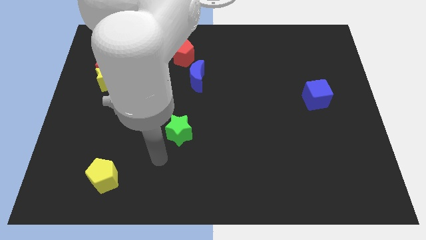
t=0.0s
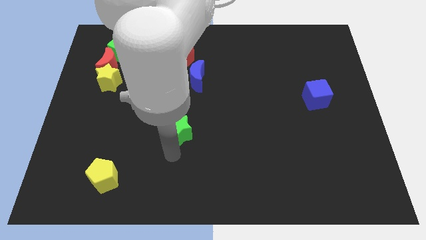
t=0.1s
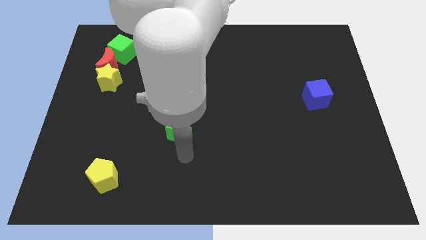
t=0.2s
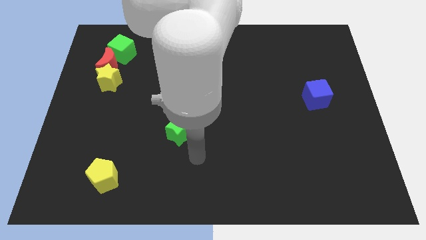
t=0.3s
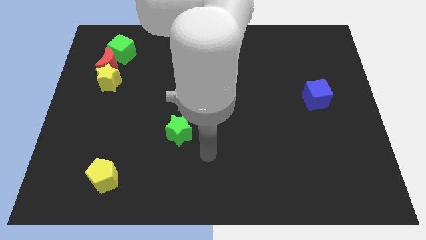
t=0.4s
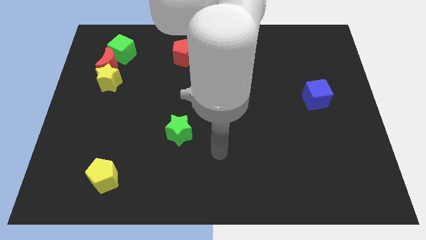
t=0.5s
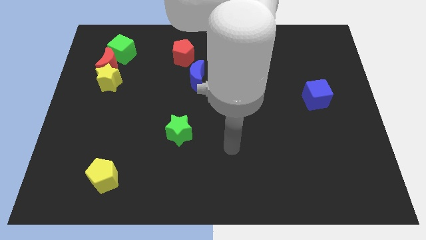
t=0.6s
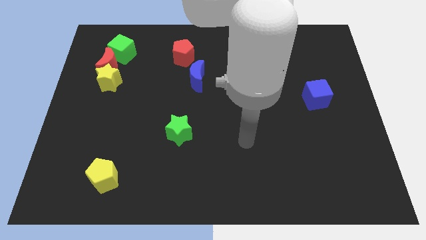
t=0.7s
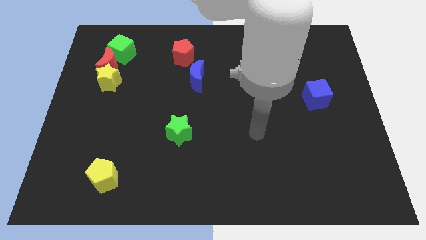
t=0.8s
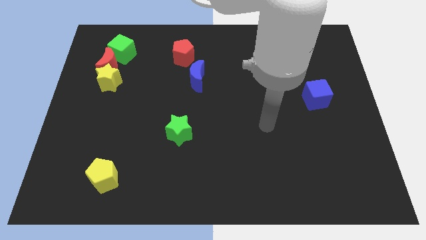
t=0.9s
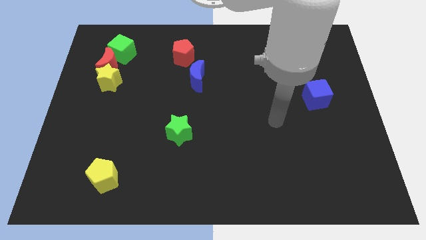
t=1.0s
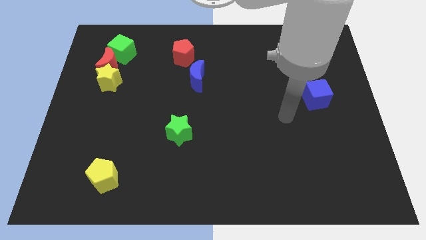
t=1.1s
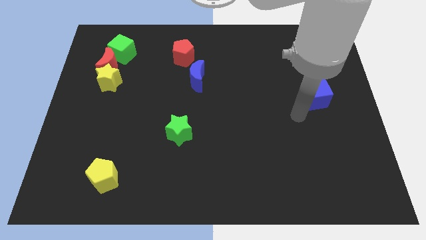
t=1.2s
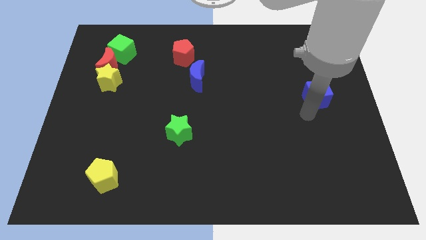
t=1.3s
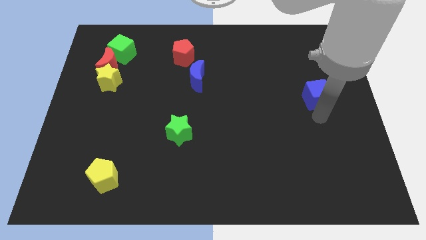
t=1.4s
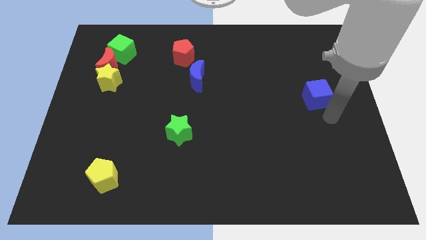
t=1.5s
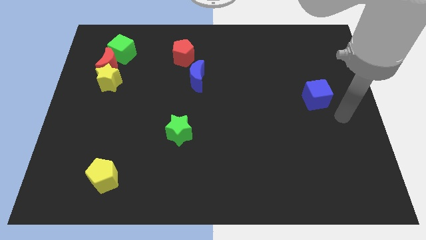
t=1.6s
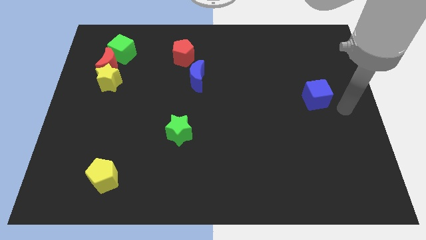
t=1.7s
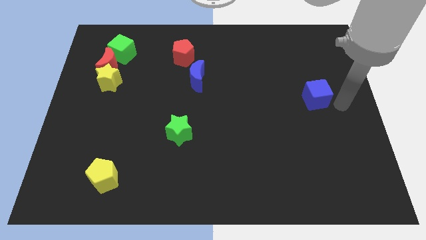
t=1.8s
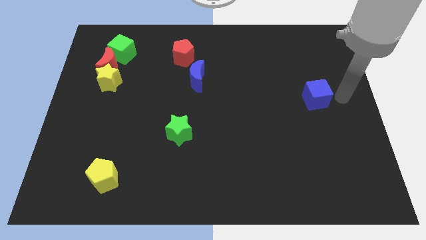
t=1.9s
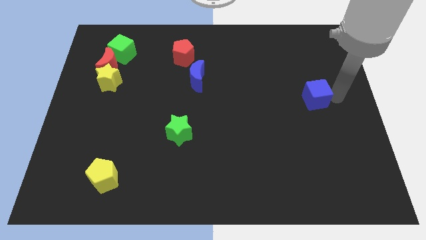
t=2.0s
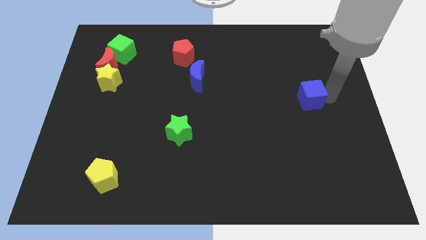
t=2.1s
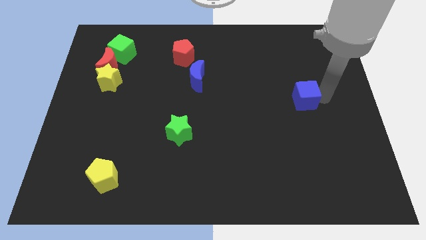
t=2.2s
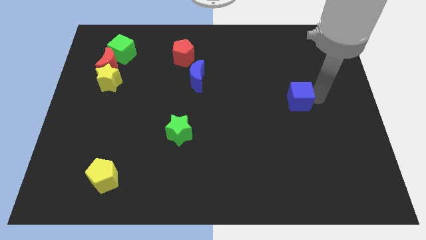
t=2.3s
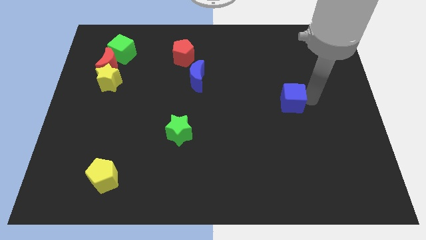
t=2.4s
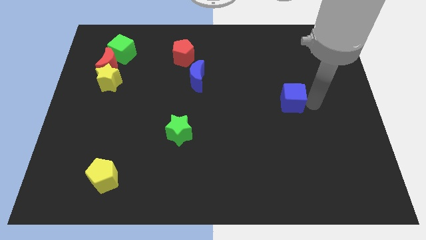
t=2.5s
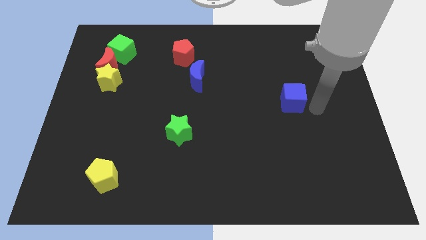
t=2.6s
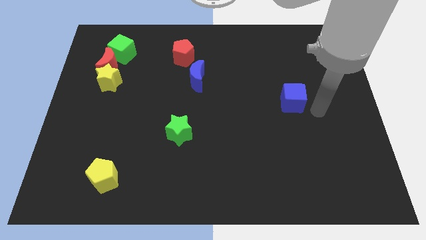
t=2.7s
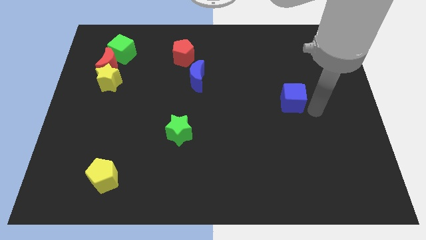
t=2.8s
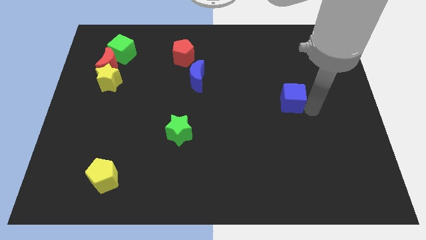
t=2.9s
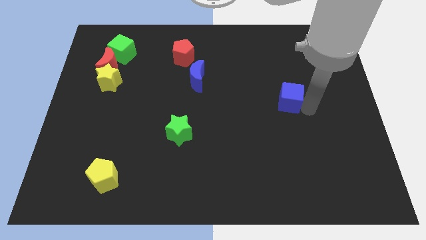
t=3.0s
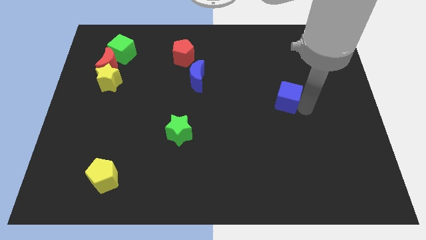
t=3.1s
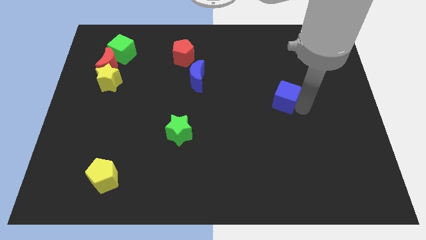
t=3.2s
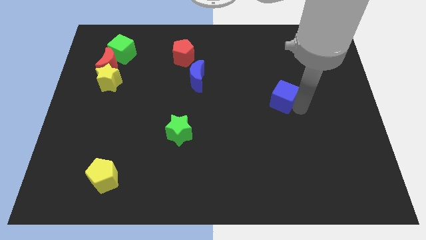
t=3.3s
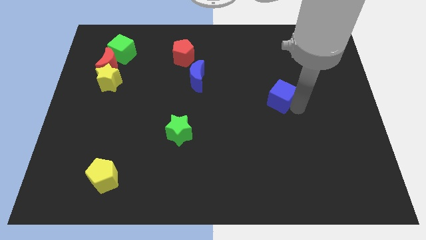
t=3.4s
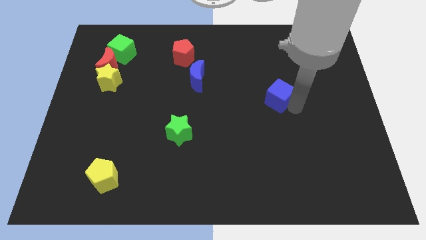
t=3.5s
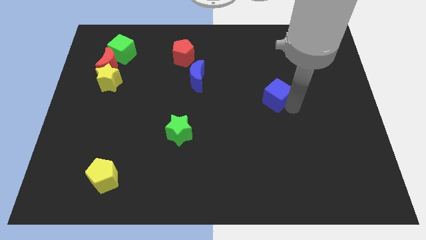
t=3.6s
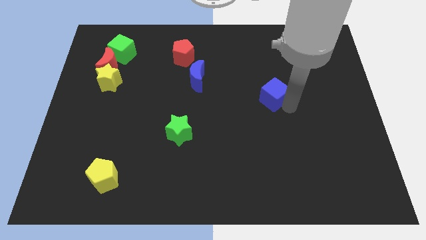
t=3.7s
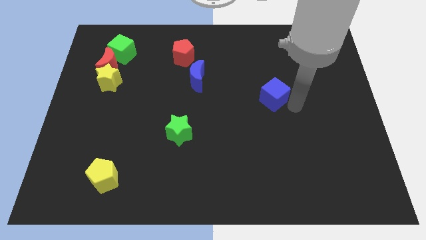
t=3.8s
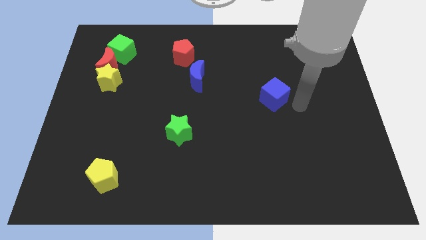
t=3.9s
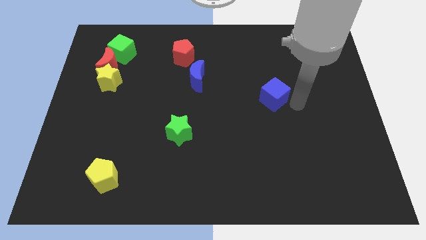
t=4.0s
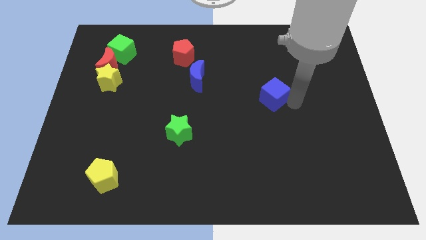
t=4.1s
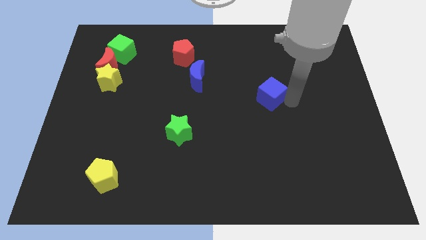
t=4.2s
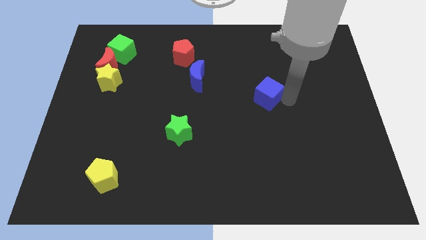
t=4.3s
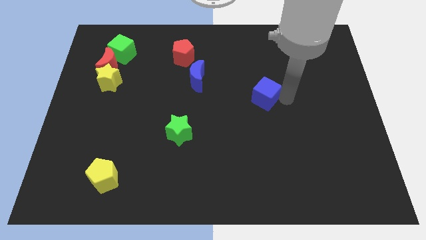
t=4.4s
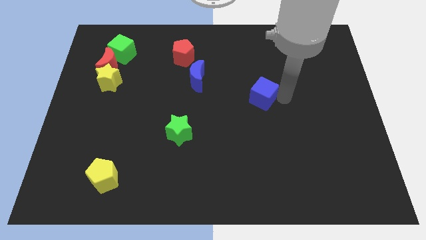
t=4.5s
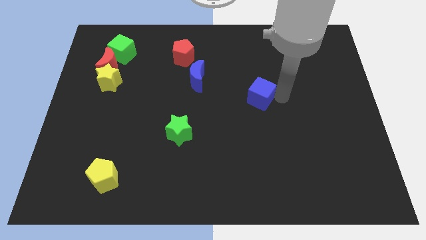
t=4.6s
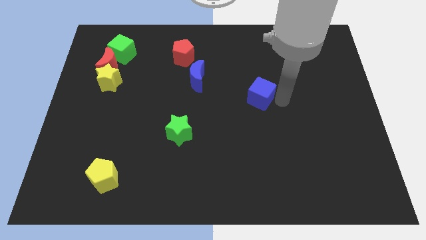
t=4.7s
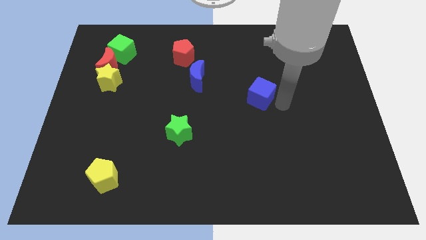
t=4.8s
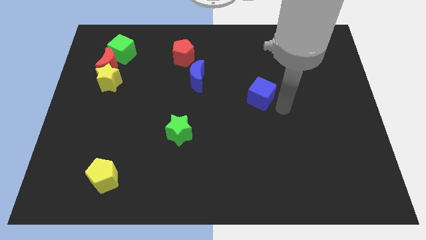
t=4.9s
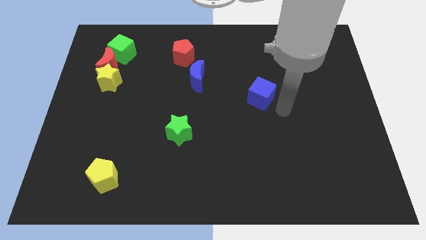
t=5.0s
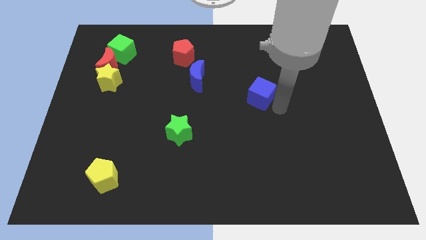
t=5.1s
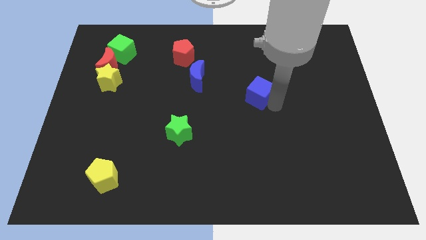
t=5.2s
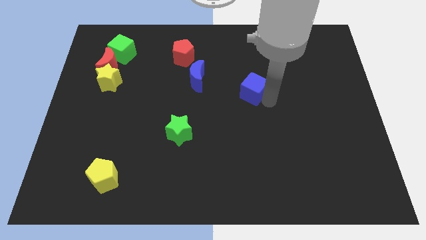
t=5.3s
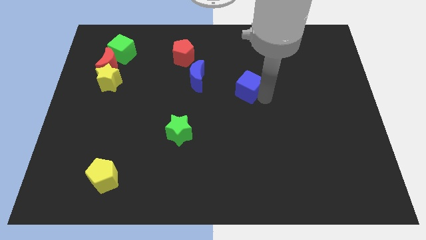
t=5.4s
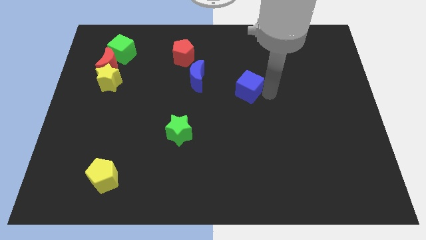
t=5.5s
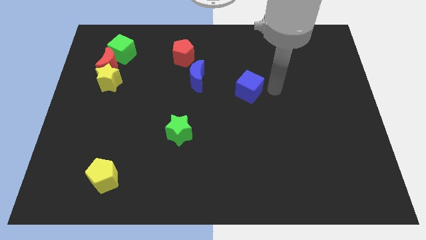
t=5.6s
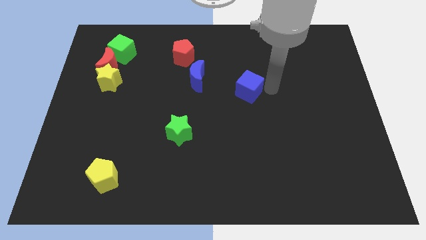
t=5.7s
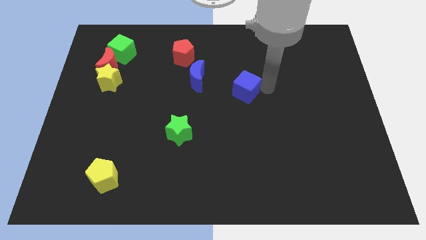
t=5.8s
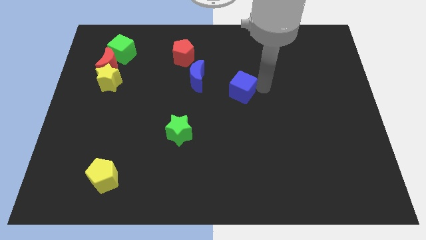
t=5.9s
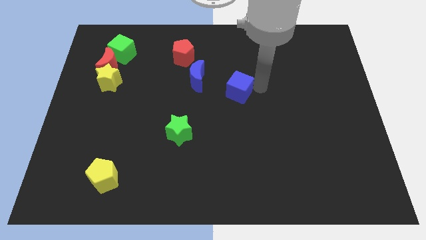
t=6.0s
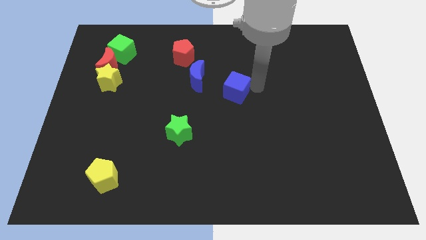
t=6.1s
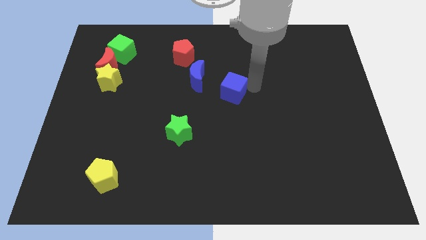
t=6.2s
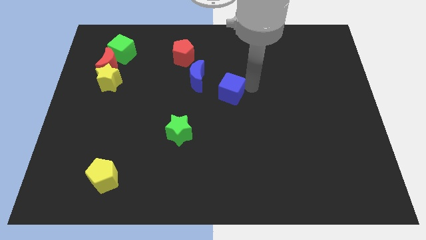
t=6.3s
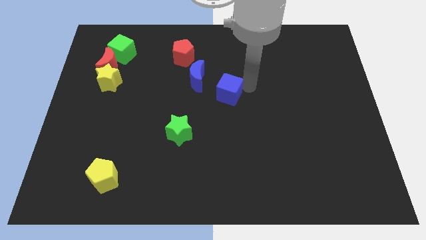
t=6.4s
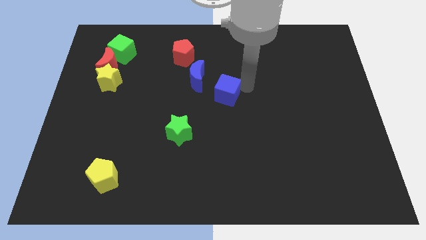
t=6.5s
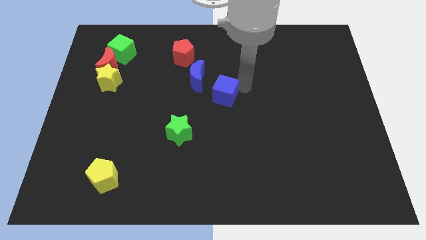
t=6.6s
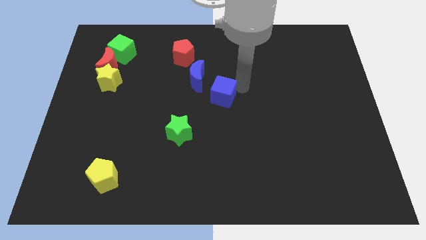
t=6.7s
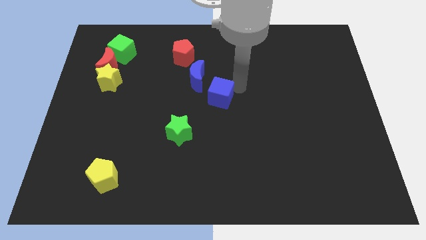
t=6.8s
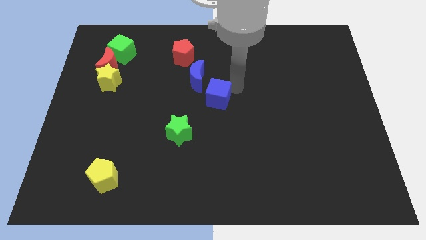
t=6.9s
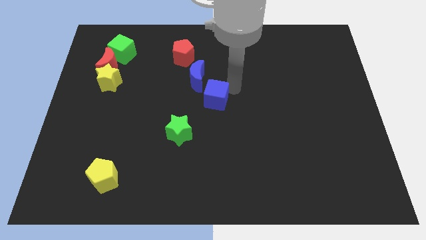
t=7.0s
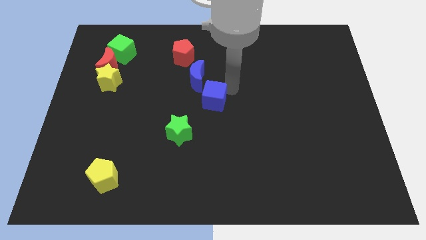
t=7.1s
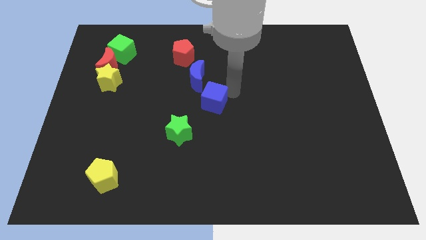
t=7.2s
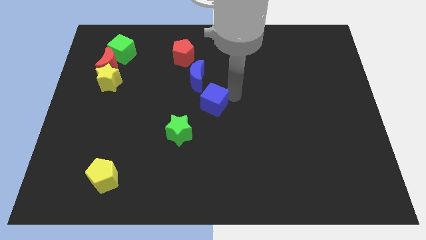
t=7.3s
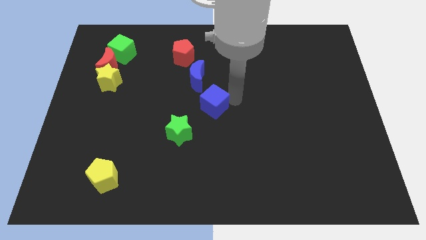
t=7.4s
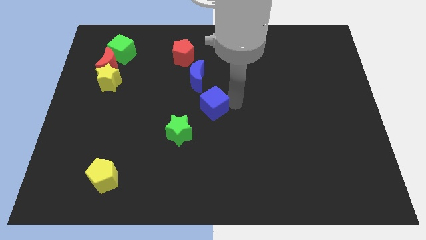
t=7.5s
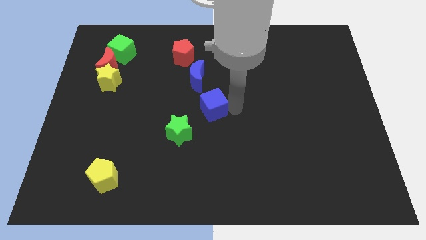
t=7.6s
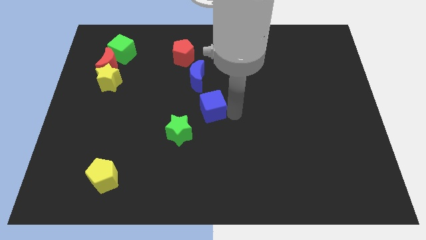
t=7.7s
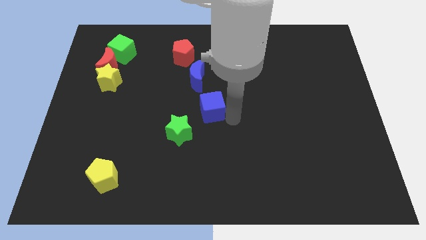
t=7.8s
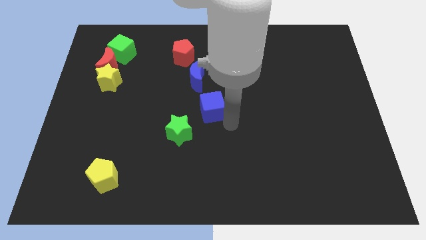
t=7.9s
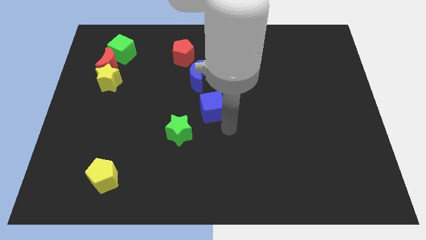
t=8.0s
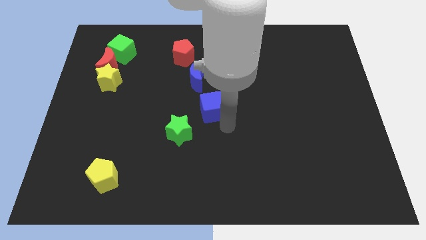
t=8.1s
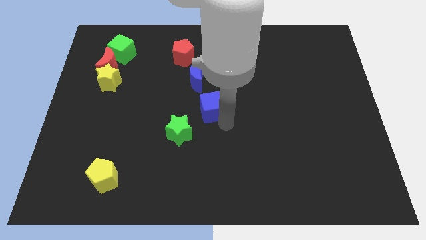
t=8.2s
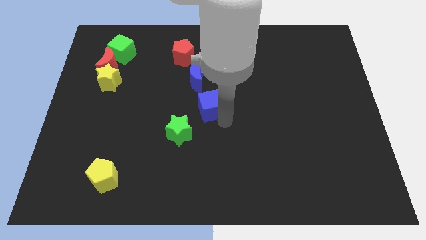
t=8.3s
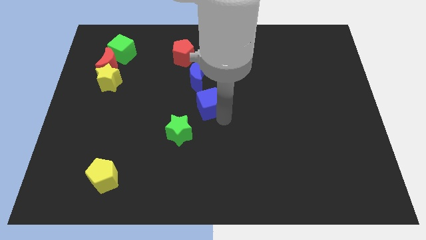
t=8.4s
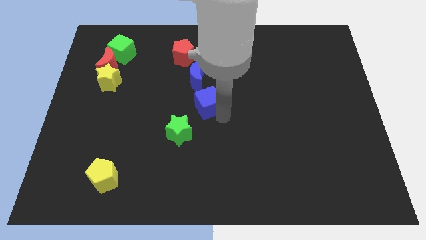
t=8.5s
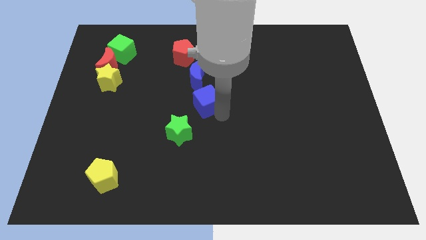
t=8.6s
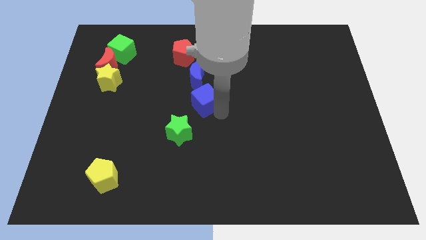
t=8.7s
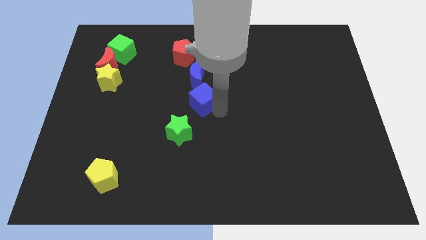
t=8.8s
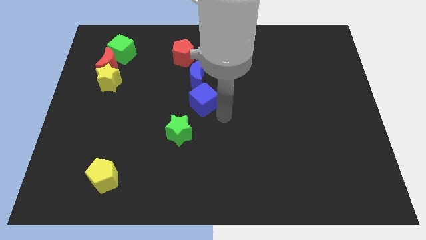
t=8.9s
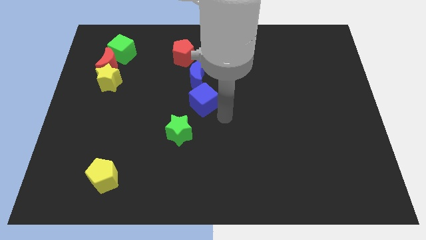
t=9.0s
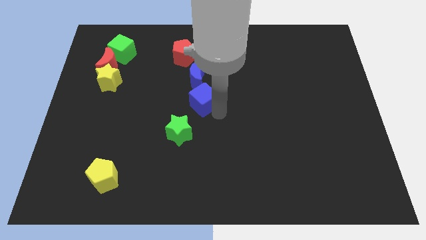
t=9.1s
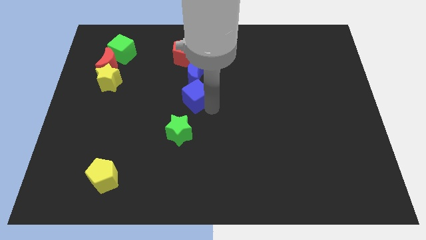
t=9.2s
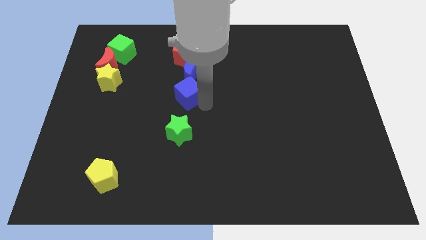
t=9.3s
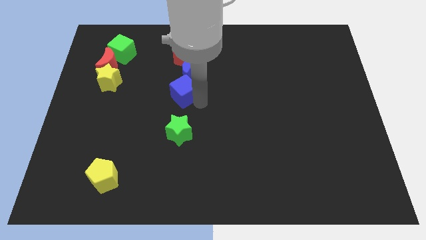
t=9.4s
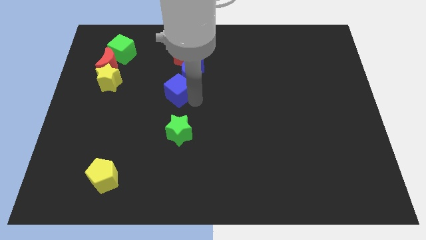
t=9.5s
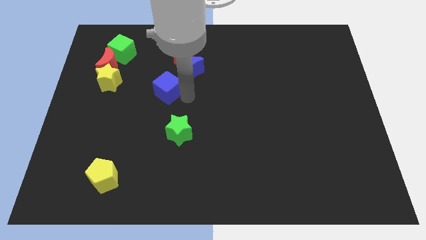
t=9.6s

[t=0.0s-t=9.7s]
move the blue cube just right of the yellow star
